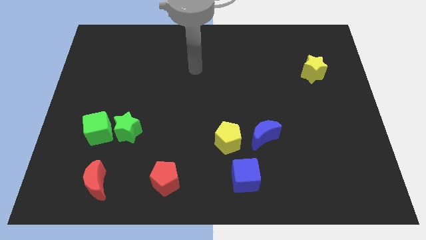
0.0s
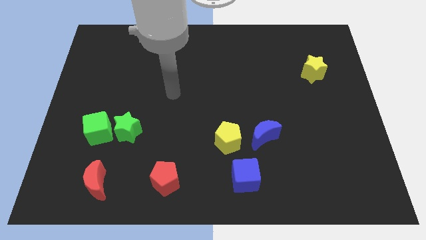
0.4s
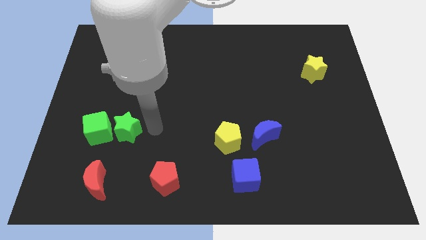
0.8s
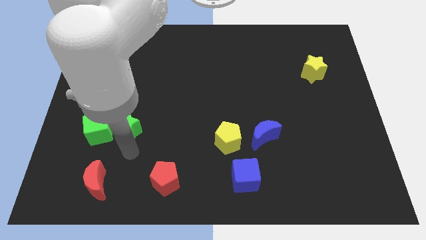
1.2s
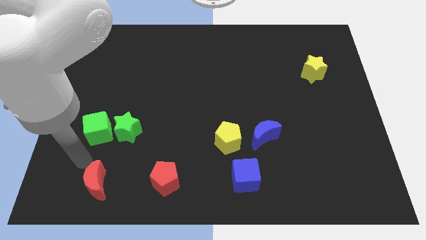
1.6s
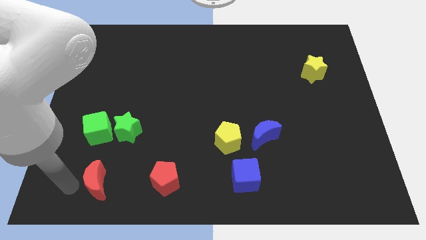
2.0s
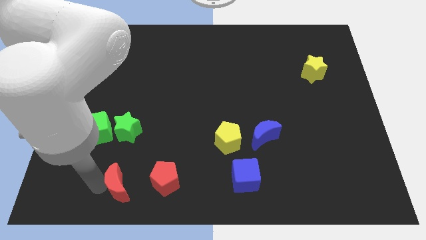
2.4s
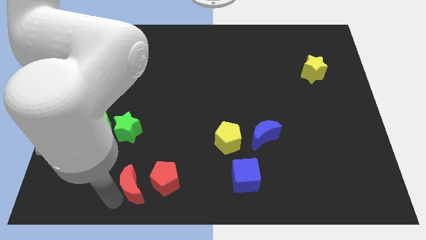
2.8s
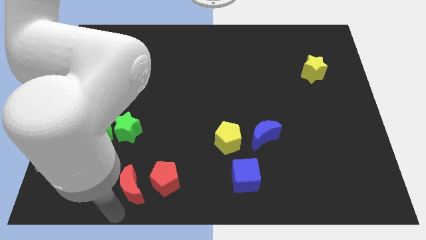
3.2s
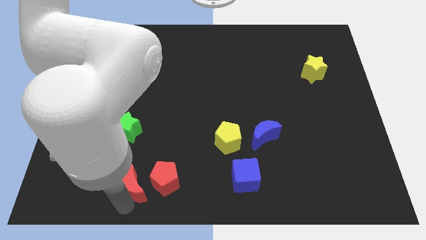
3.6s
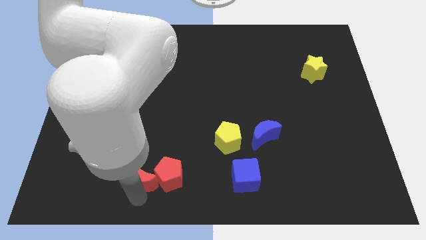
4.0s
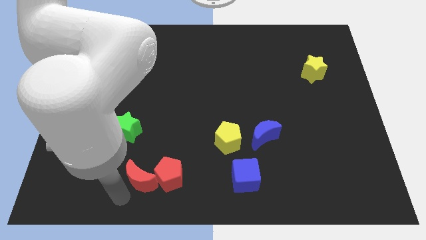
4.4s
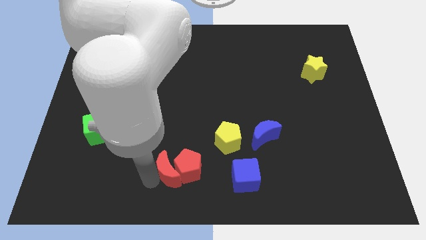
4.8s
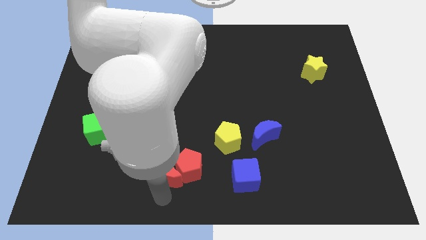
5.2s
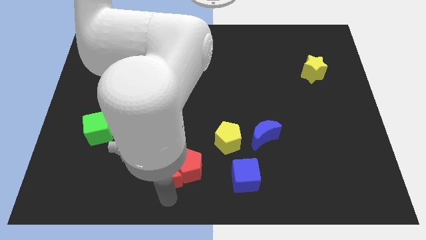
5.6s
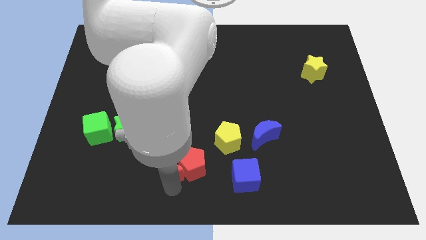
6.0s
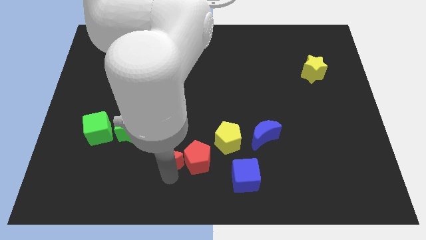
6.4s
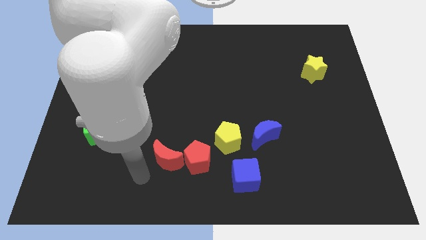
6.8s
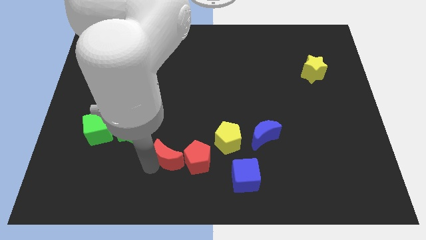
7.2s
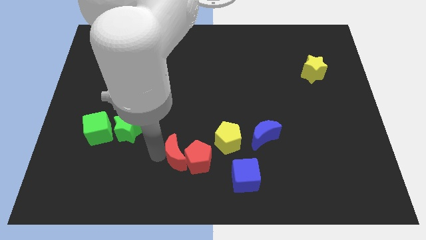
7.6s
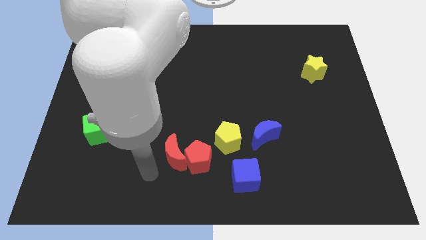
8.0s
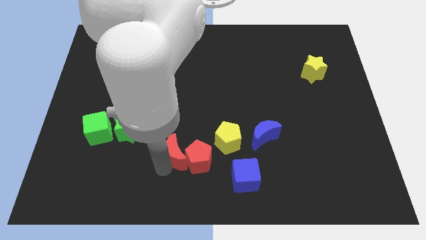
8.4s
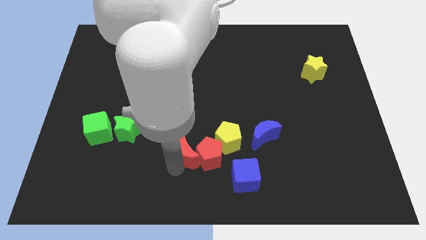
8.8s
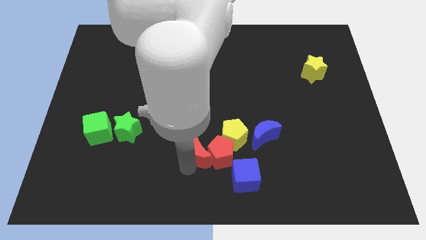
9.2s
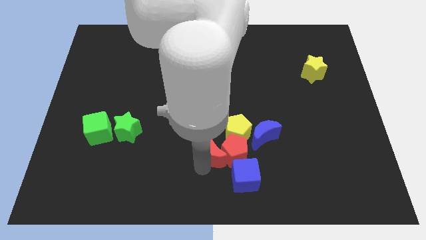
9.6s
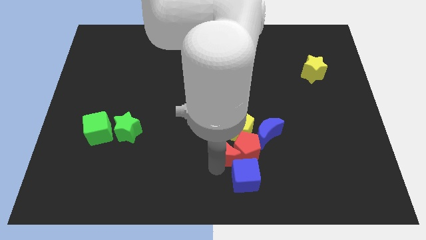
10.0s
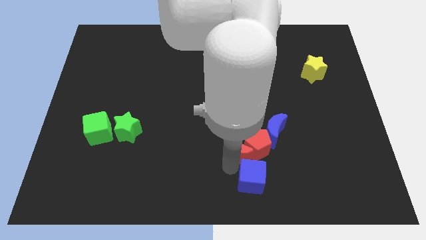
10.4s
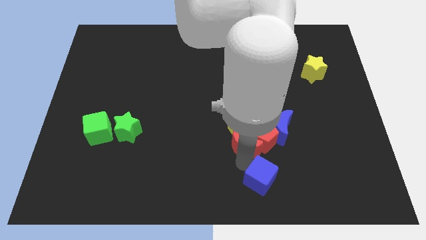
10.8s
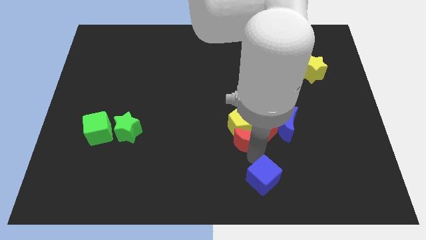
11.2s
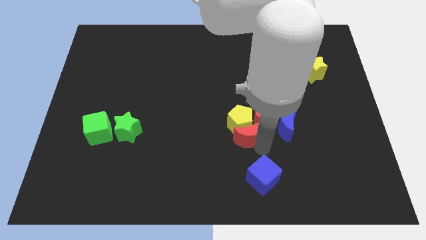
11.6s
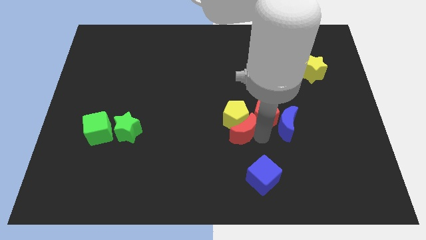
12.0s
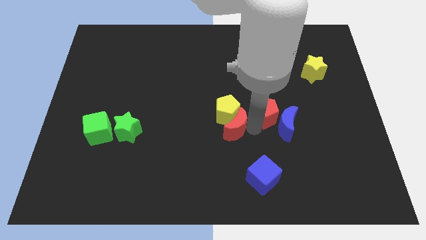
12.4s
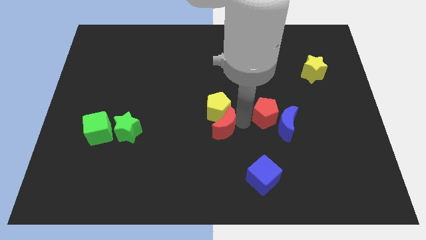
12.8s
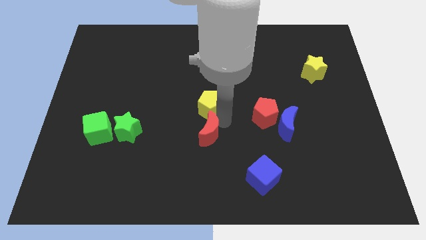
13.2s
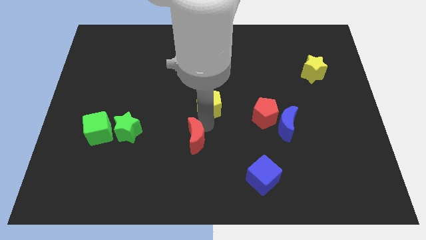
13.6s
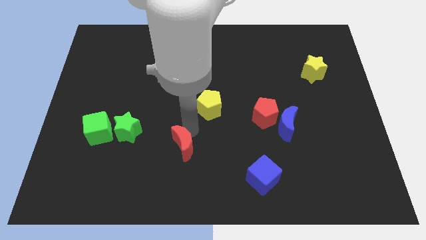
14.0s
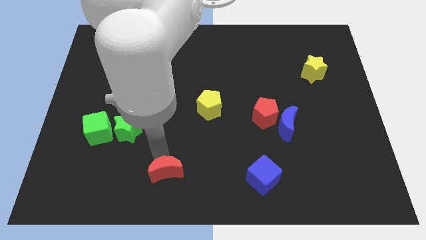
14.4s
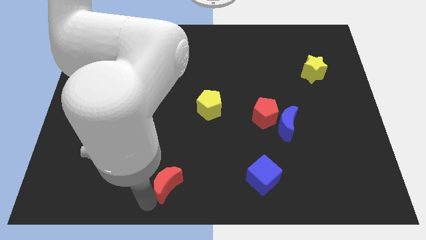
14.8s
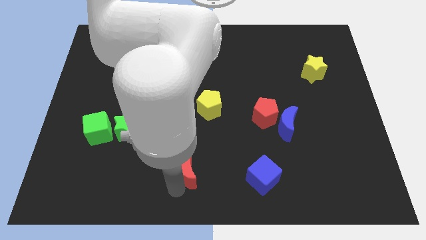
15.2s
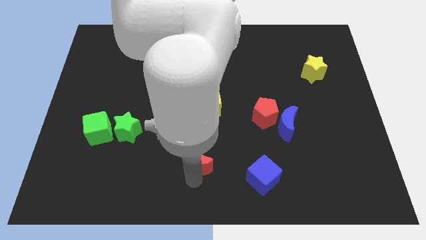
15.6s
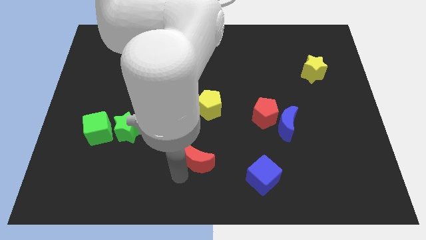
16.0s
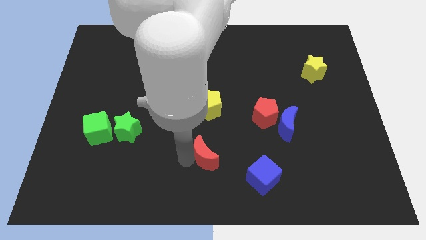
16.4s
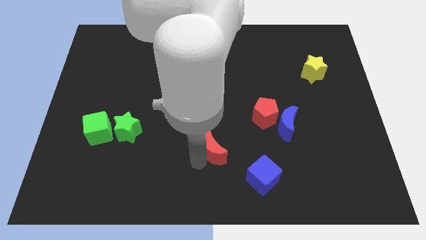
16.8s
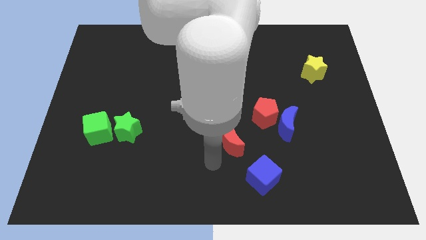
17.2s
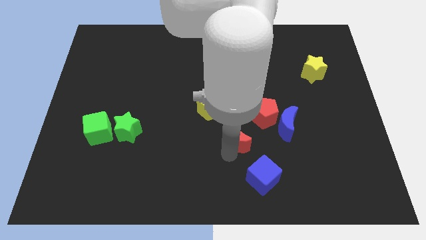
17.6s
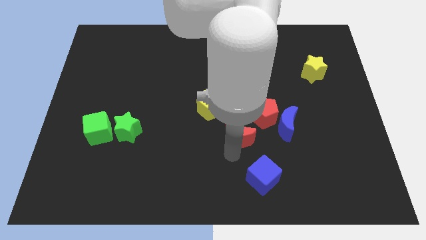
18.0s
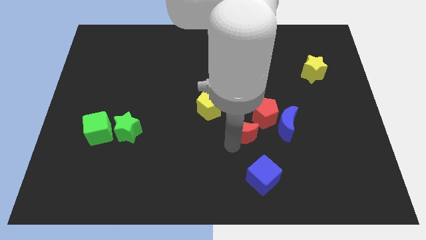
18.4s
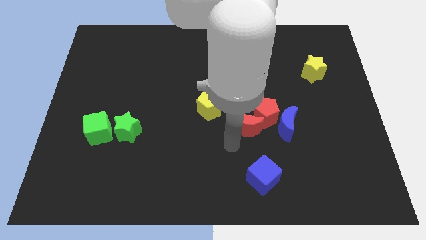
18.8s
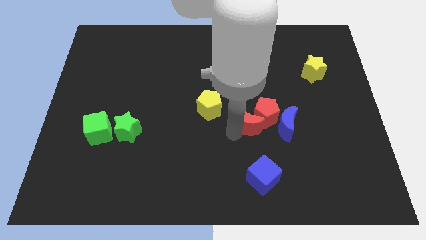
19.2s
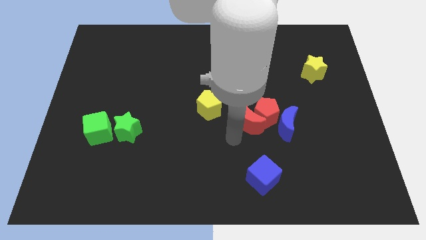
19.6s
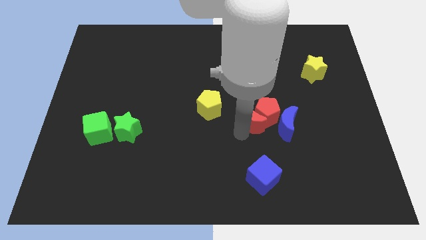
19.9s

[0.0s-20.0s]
move the red moon to the top left side of the blue moon
